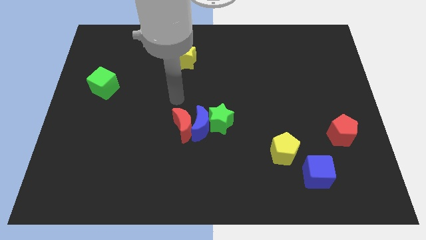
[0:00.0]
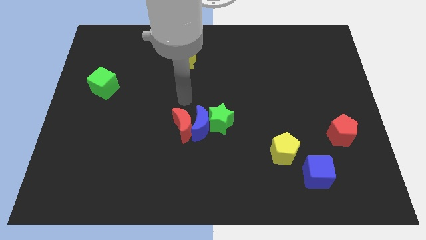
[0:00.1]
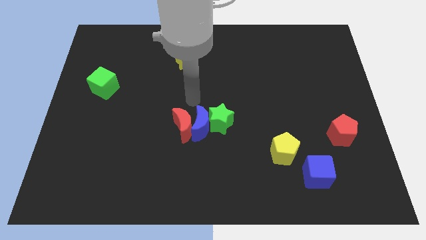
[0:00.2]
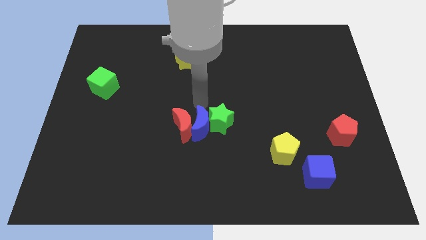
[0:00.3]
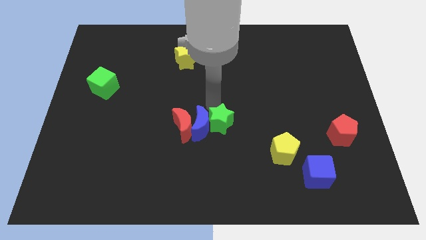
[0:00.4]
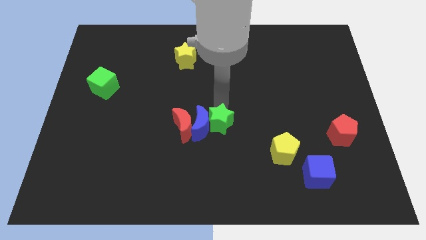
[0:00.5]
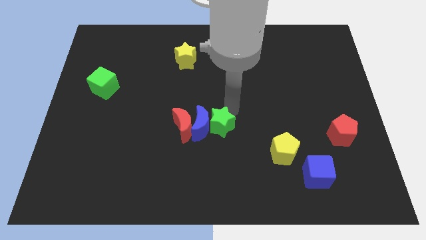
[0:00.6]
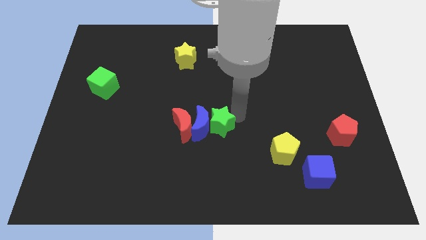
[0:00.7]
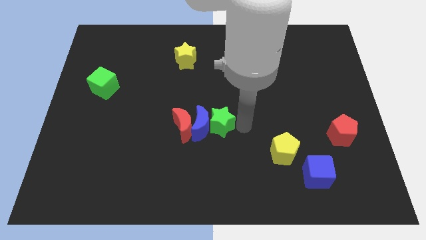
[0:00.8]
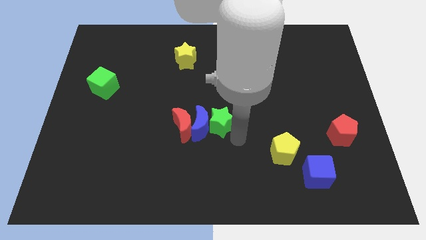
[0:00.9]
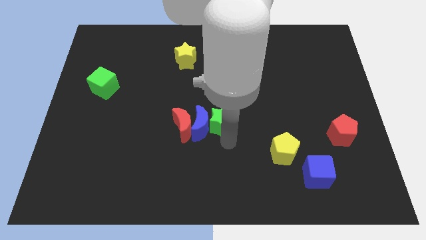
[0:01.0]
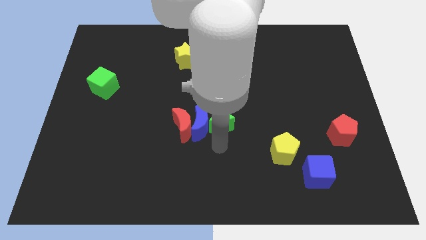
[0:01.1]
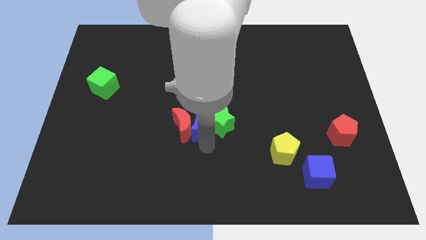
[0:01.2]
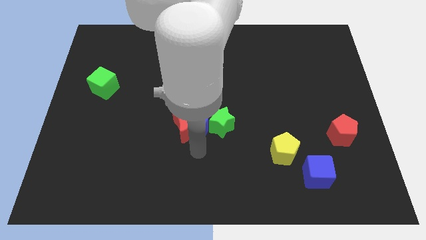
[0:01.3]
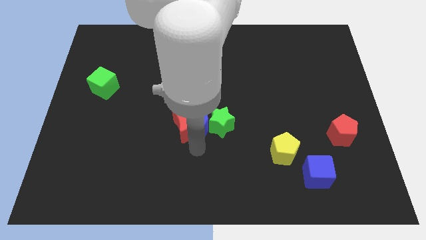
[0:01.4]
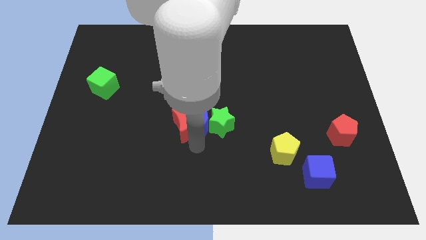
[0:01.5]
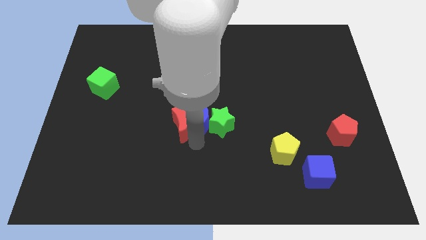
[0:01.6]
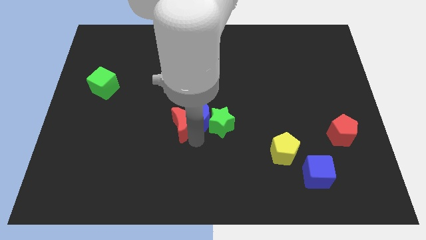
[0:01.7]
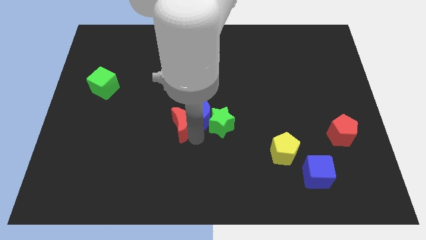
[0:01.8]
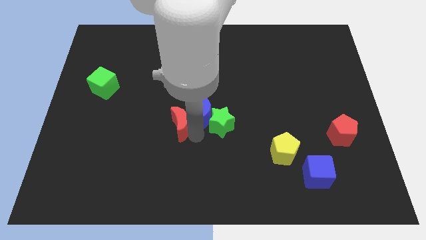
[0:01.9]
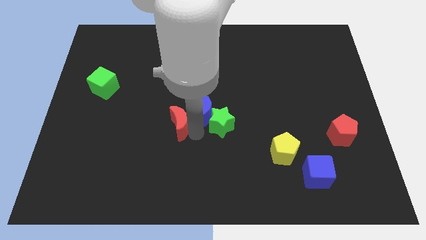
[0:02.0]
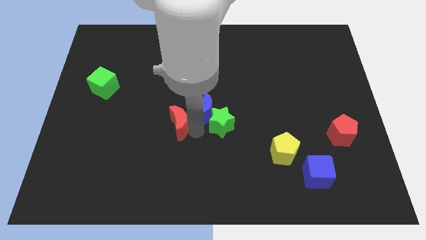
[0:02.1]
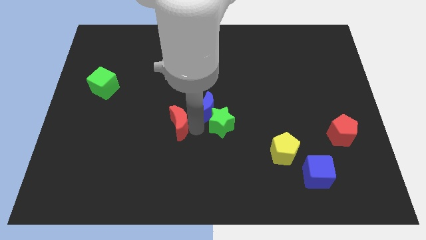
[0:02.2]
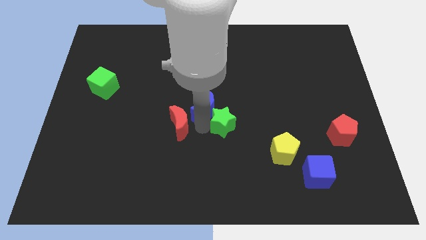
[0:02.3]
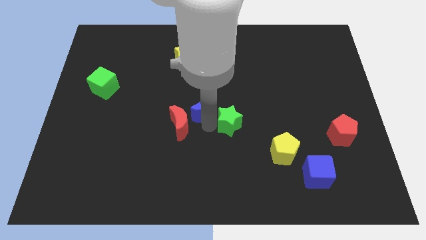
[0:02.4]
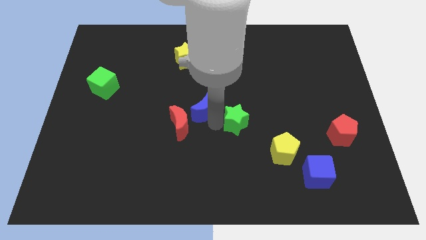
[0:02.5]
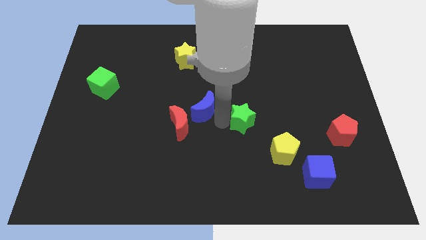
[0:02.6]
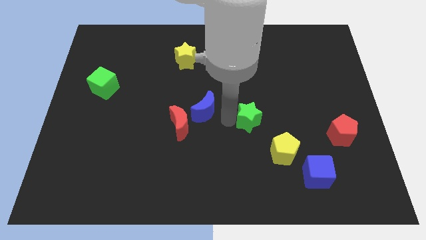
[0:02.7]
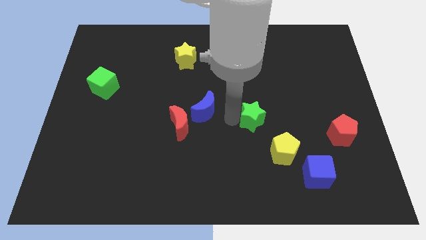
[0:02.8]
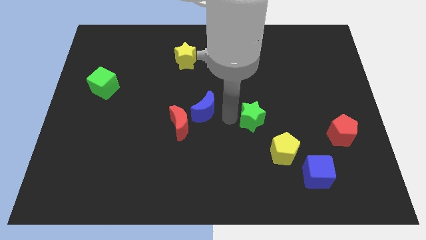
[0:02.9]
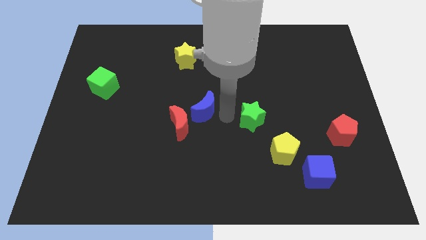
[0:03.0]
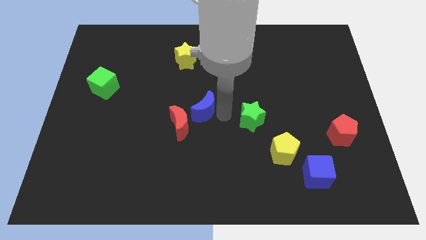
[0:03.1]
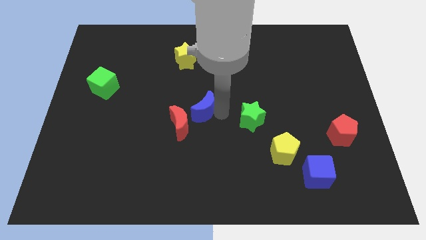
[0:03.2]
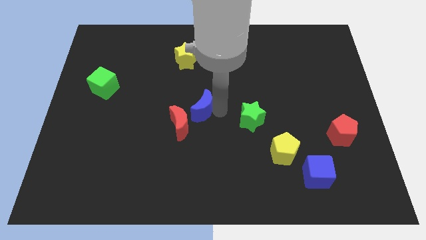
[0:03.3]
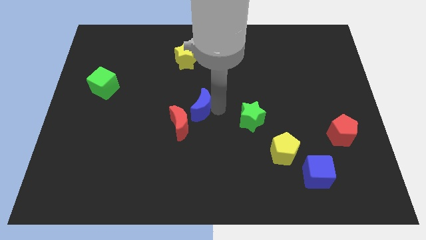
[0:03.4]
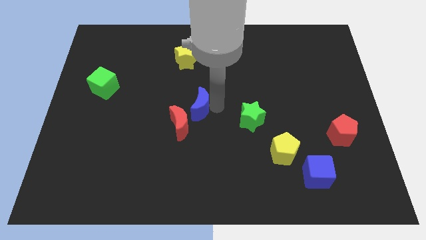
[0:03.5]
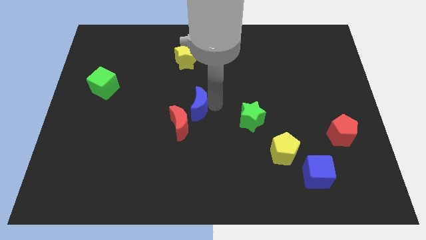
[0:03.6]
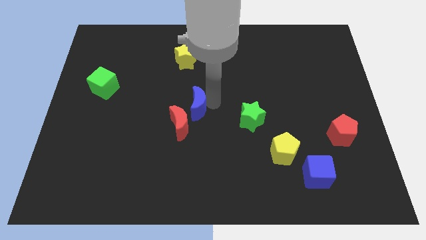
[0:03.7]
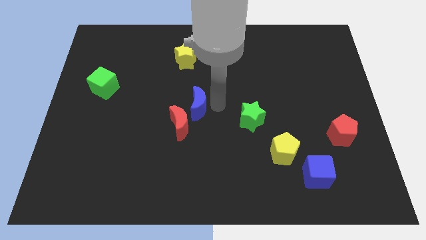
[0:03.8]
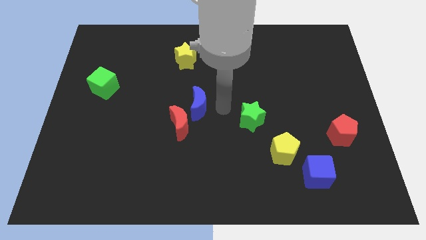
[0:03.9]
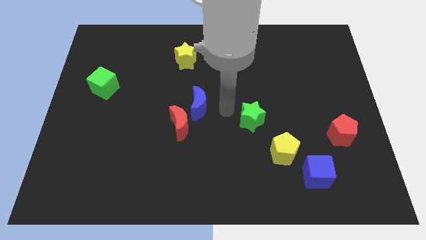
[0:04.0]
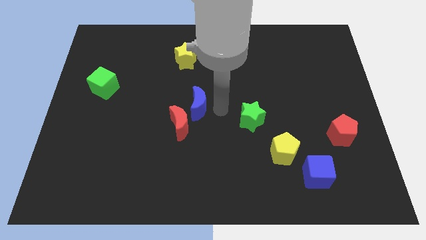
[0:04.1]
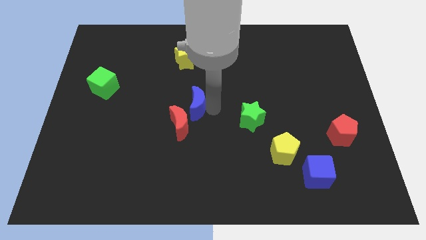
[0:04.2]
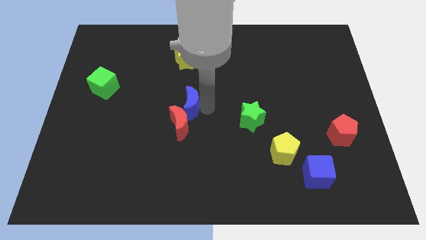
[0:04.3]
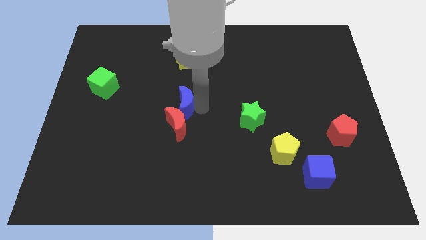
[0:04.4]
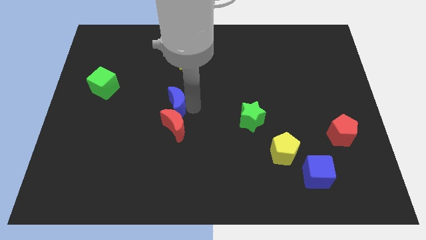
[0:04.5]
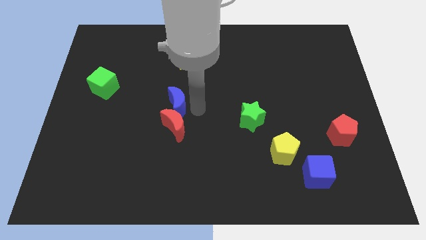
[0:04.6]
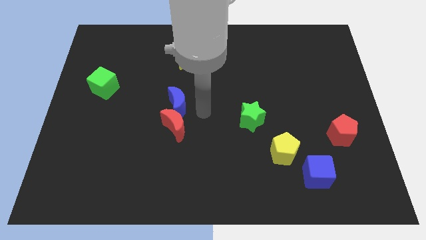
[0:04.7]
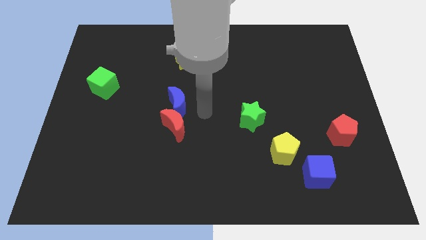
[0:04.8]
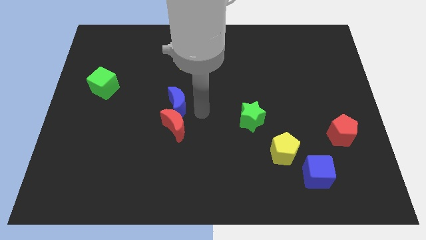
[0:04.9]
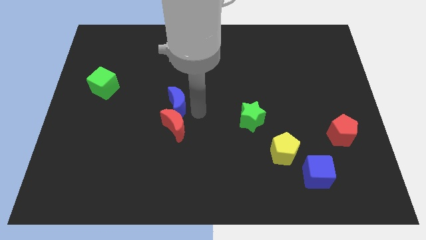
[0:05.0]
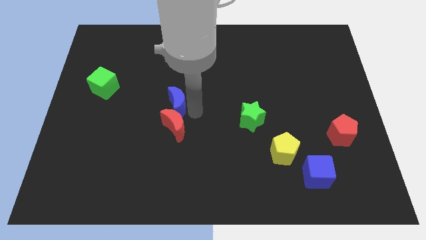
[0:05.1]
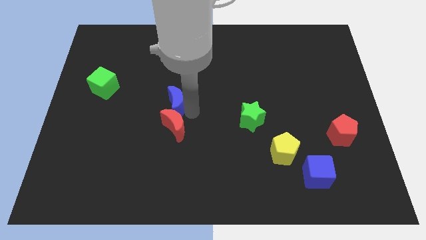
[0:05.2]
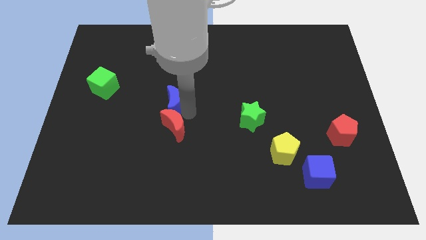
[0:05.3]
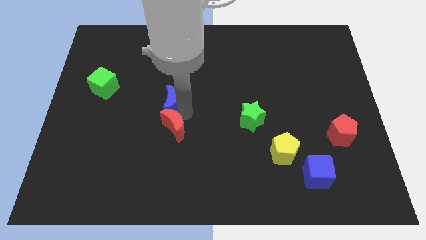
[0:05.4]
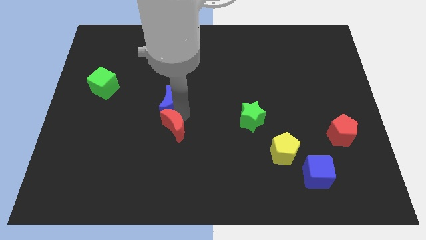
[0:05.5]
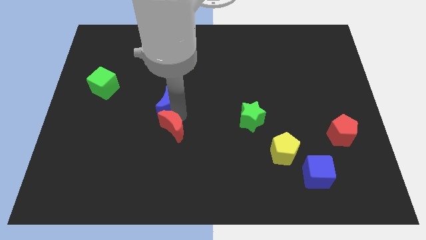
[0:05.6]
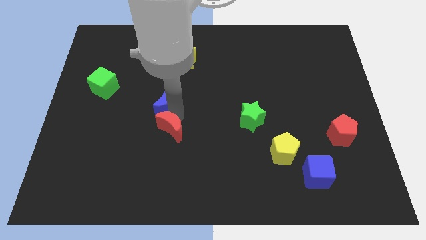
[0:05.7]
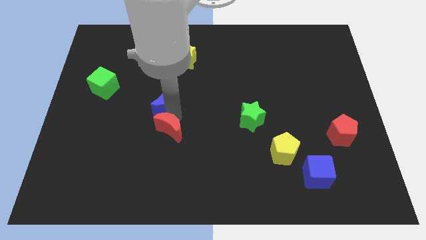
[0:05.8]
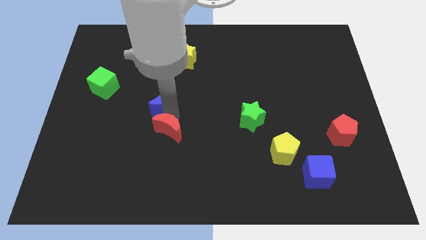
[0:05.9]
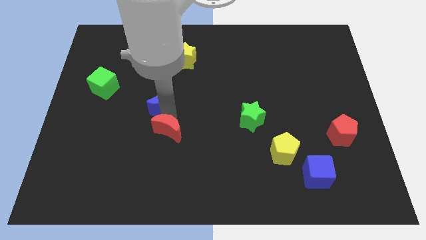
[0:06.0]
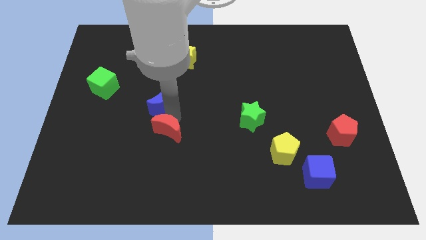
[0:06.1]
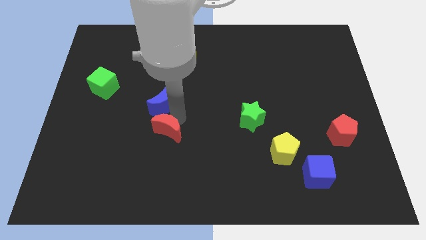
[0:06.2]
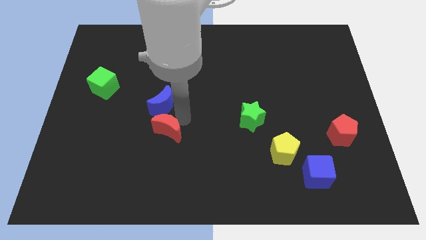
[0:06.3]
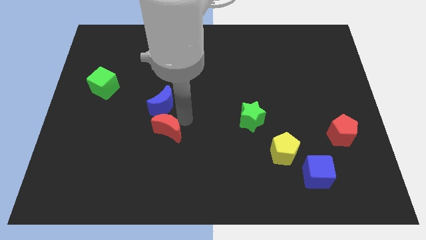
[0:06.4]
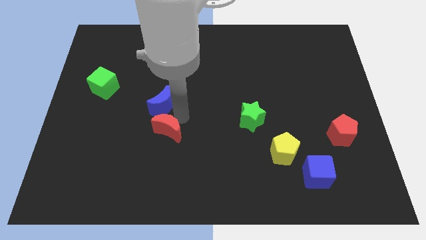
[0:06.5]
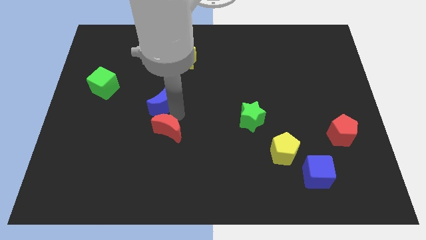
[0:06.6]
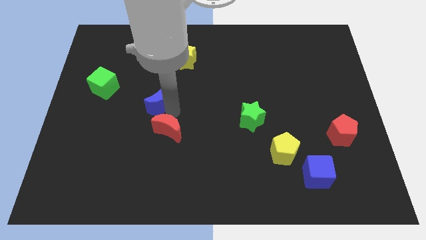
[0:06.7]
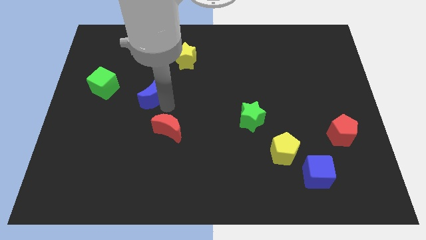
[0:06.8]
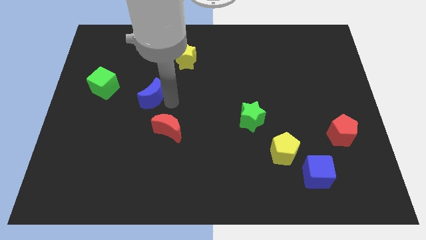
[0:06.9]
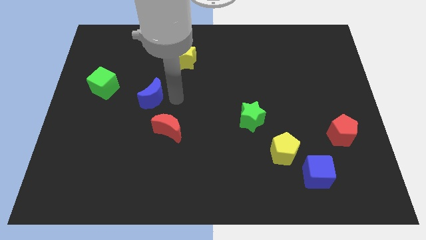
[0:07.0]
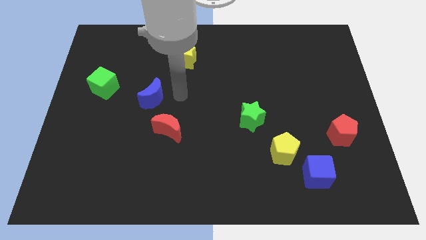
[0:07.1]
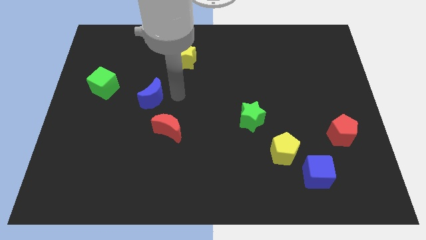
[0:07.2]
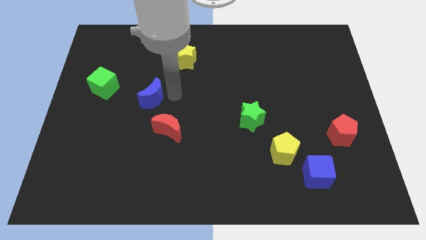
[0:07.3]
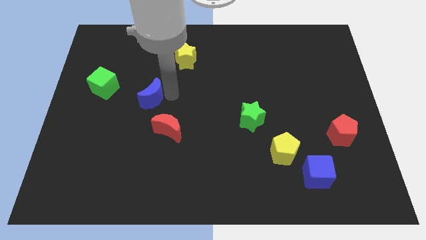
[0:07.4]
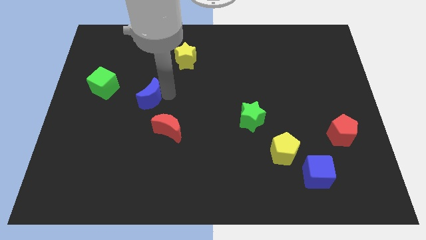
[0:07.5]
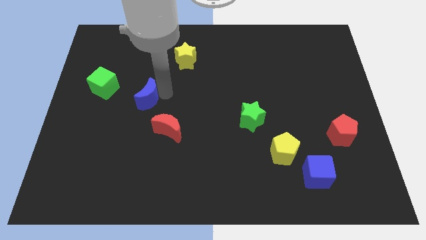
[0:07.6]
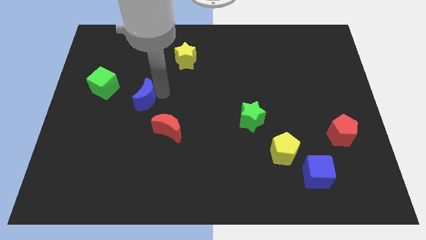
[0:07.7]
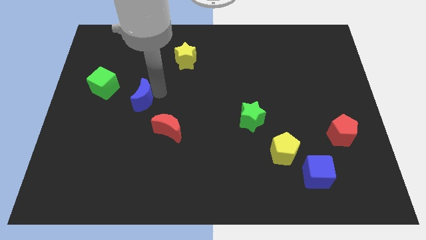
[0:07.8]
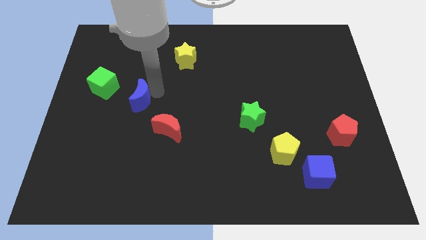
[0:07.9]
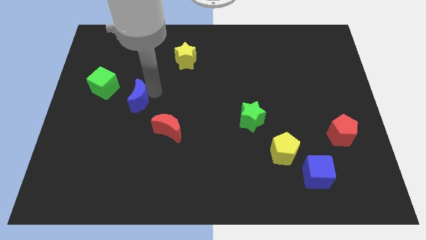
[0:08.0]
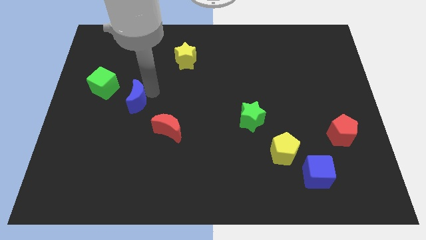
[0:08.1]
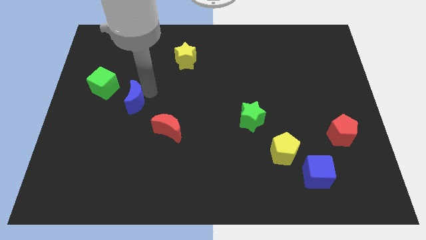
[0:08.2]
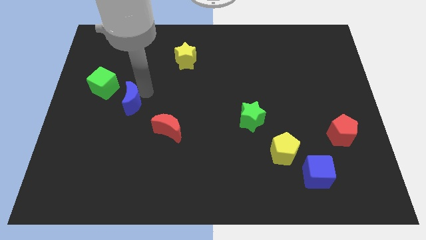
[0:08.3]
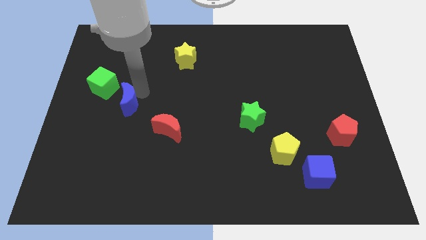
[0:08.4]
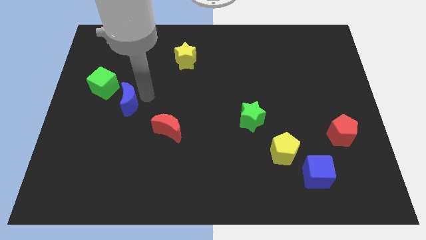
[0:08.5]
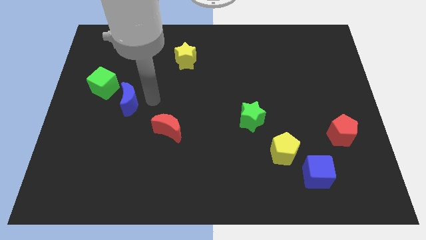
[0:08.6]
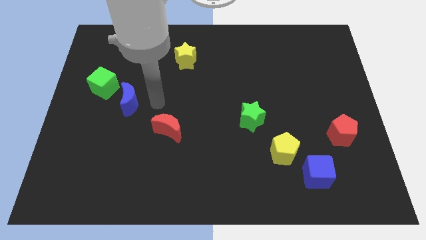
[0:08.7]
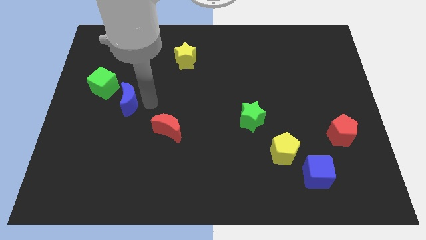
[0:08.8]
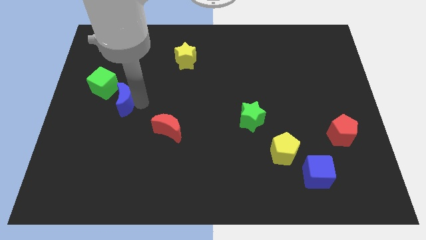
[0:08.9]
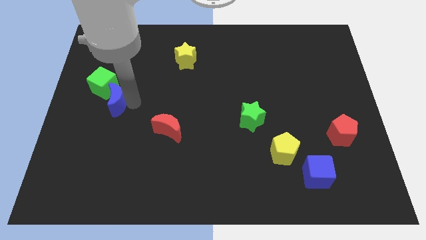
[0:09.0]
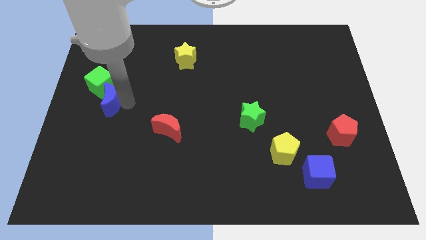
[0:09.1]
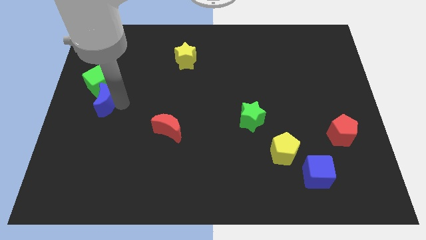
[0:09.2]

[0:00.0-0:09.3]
push the blue moon to the center left
